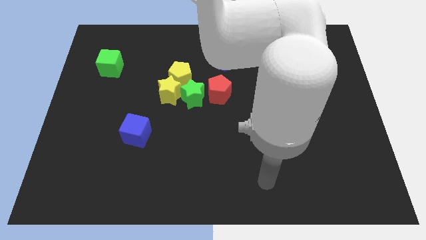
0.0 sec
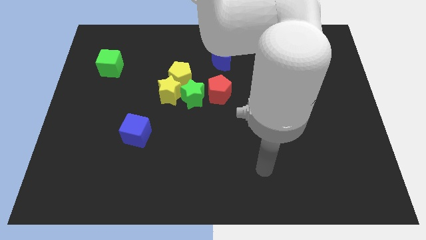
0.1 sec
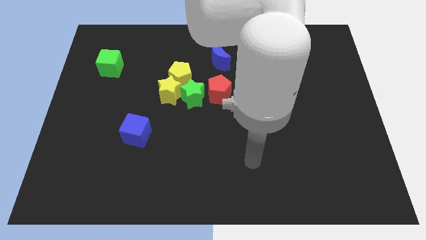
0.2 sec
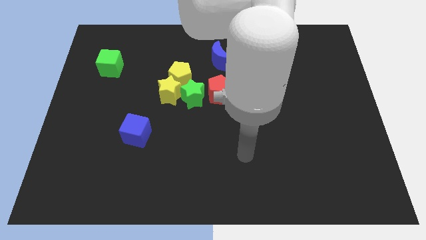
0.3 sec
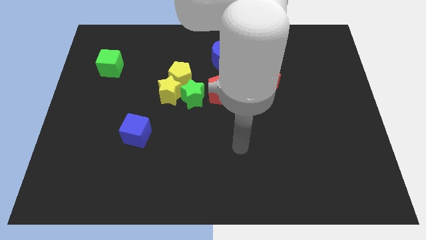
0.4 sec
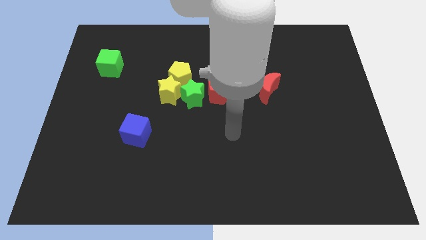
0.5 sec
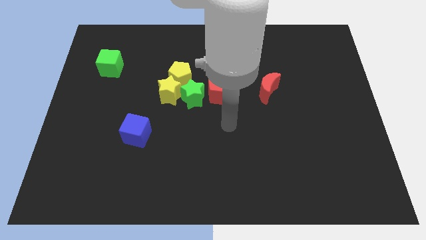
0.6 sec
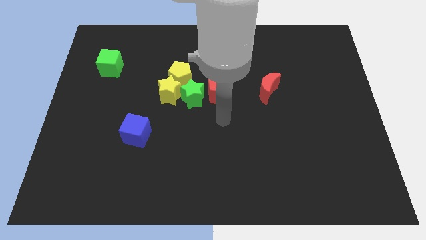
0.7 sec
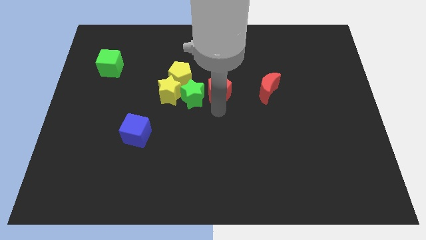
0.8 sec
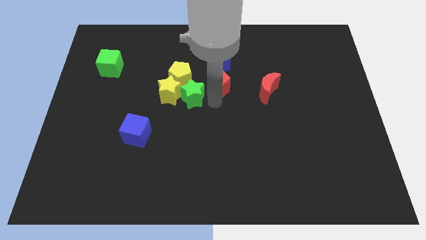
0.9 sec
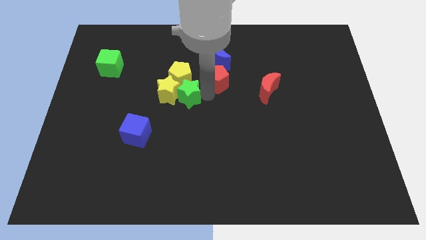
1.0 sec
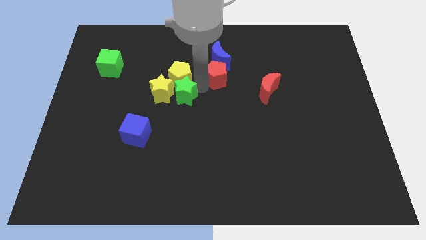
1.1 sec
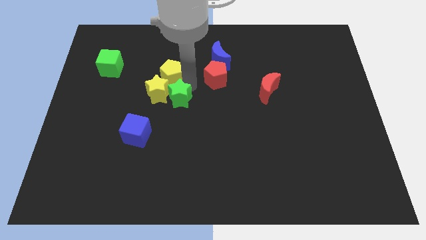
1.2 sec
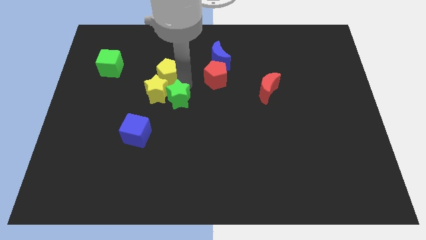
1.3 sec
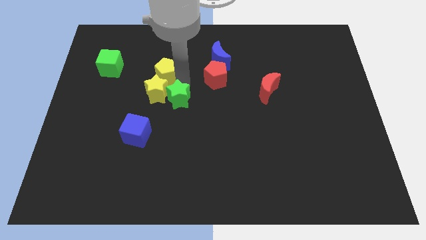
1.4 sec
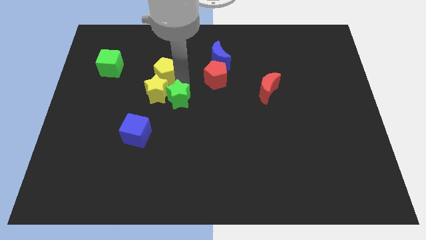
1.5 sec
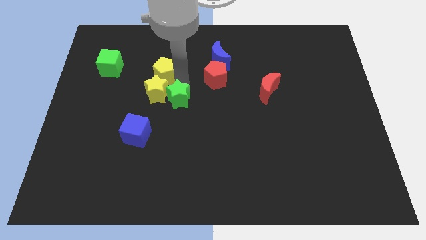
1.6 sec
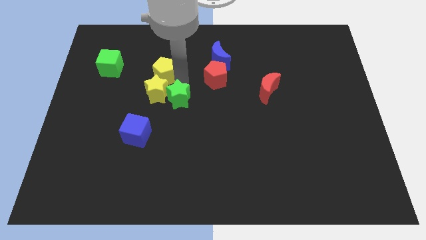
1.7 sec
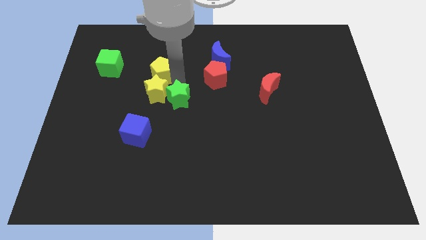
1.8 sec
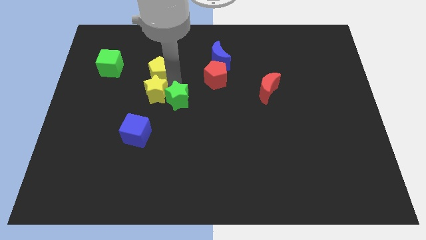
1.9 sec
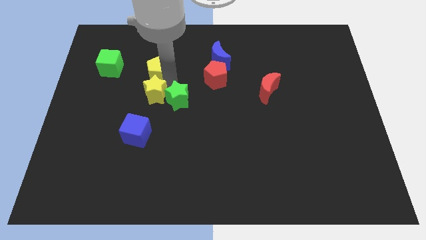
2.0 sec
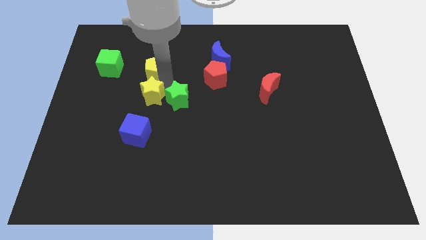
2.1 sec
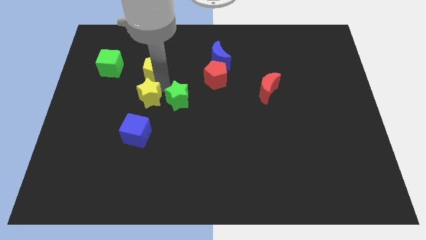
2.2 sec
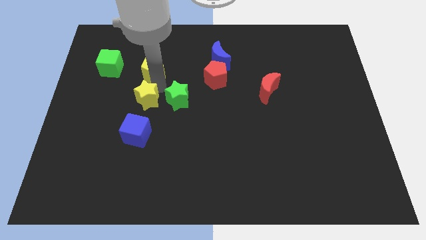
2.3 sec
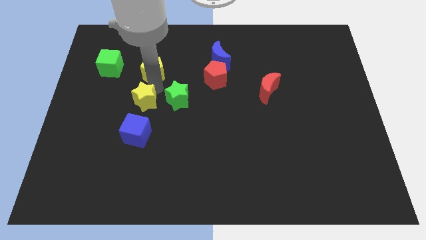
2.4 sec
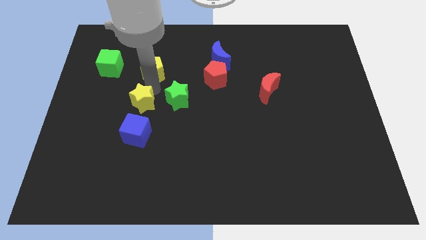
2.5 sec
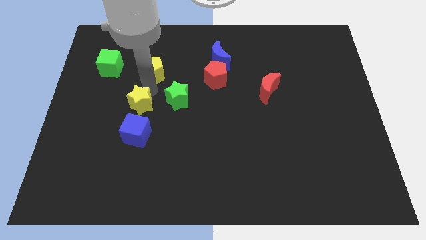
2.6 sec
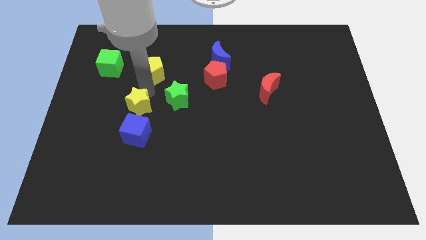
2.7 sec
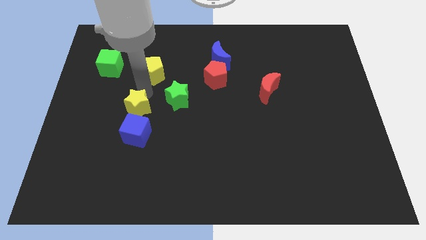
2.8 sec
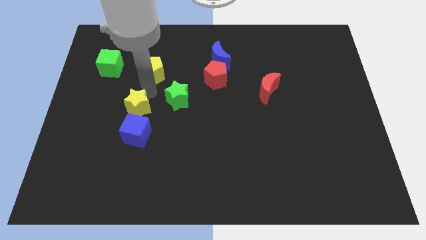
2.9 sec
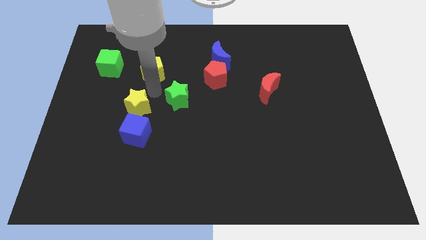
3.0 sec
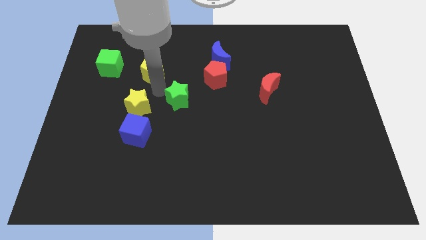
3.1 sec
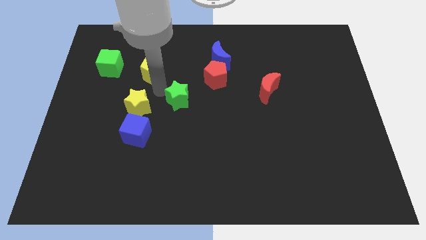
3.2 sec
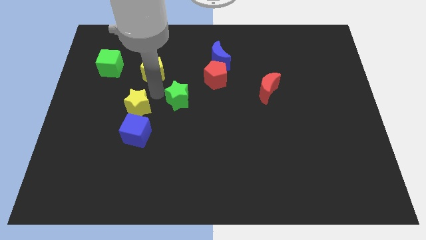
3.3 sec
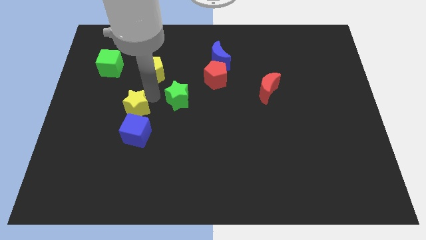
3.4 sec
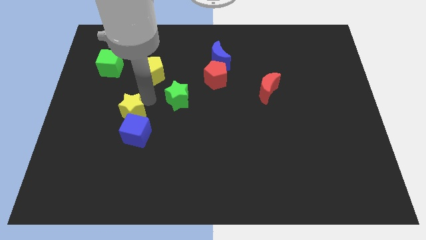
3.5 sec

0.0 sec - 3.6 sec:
separate the yellow star from the yellow pentagon and green star

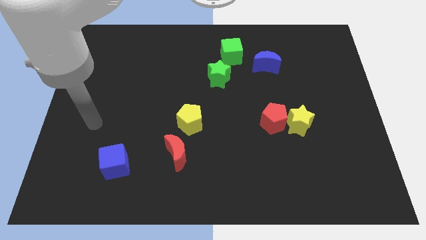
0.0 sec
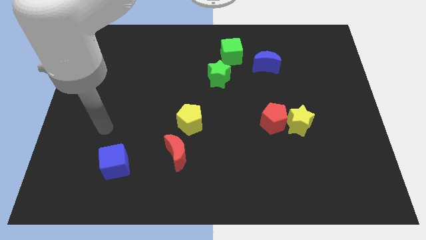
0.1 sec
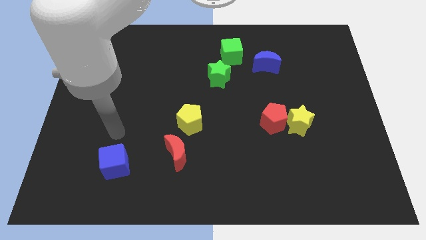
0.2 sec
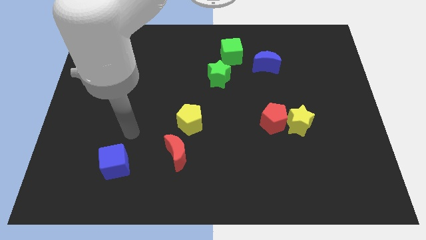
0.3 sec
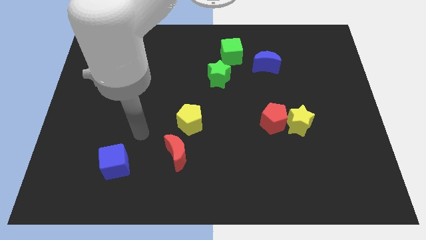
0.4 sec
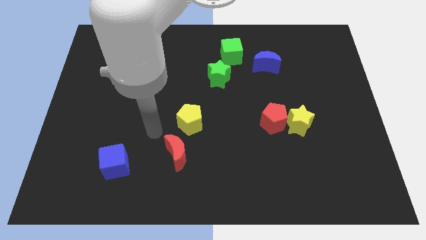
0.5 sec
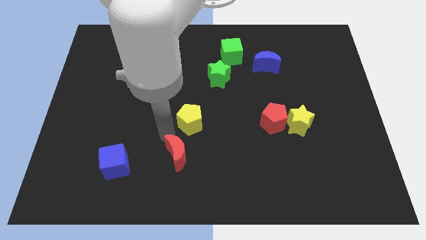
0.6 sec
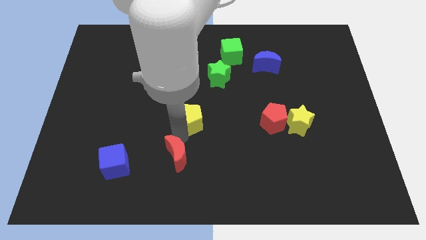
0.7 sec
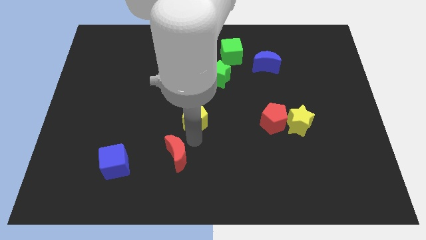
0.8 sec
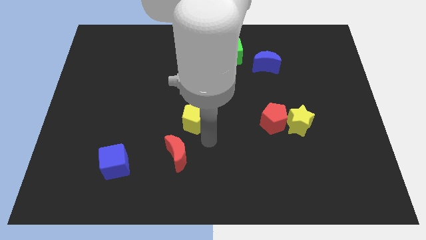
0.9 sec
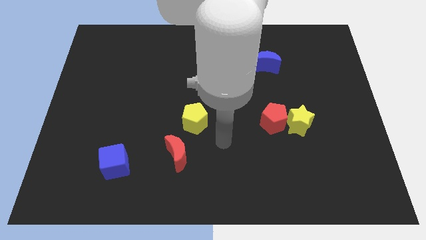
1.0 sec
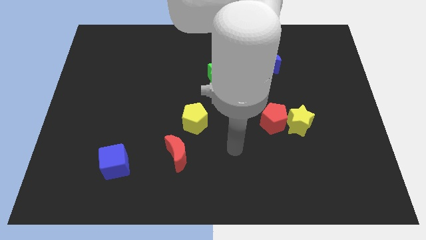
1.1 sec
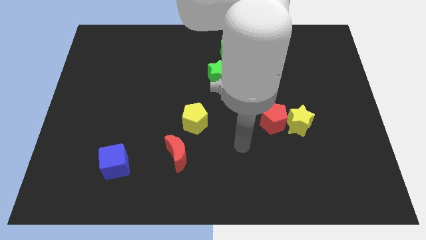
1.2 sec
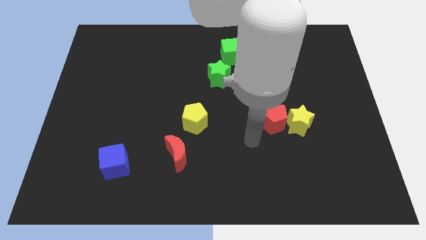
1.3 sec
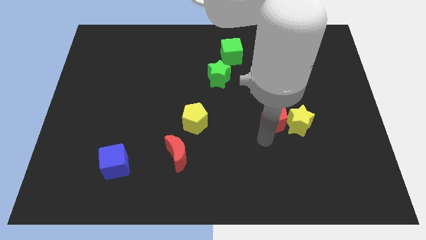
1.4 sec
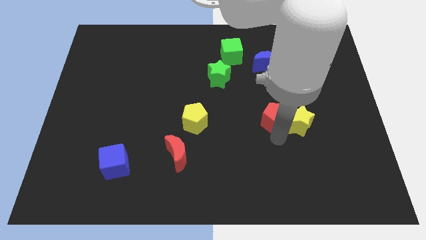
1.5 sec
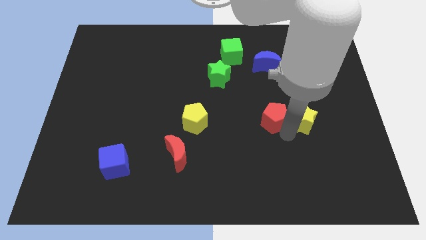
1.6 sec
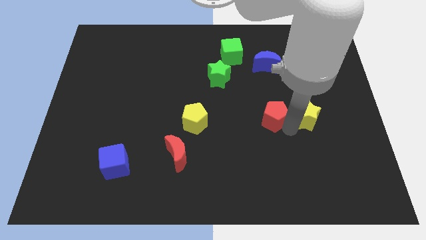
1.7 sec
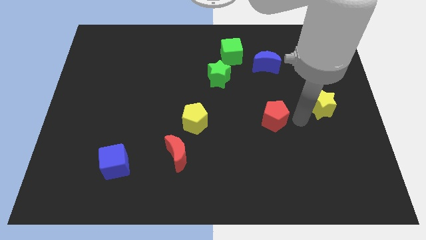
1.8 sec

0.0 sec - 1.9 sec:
pull the red pentagon apart from the yellow star

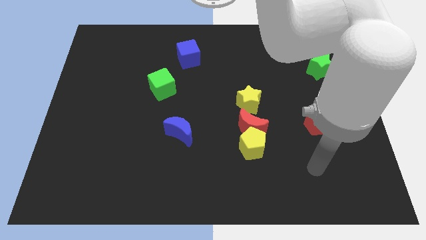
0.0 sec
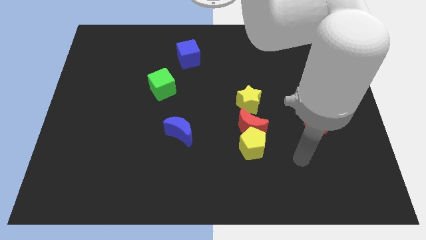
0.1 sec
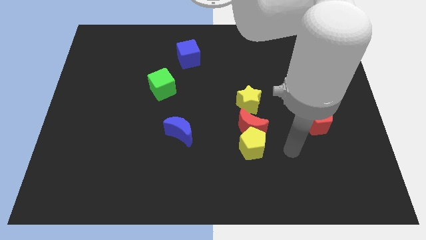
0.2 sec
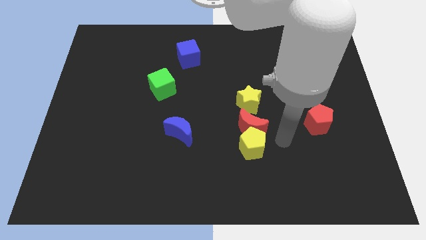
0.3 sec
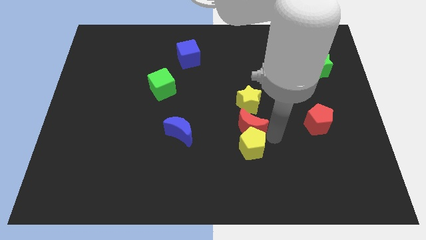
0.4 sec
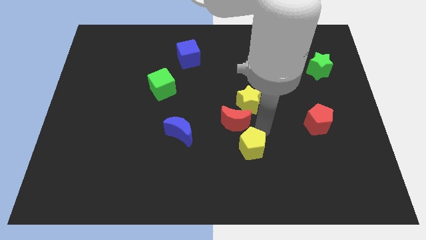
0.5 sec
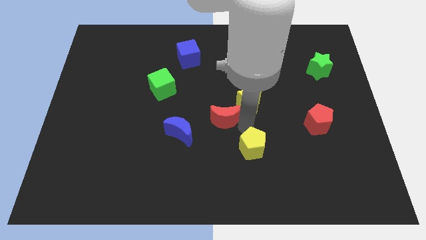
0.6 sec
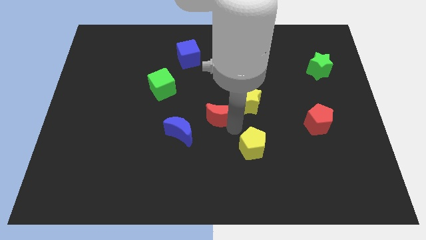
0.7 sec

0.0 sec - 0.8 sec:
move the yellow pentagon away from the red moon

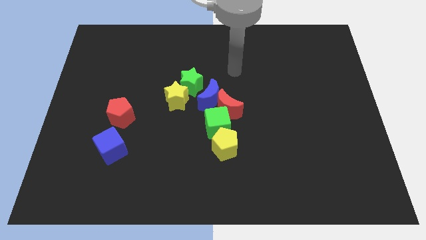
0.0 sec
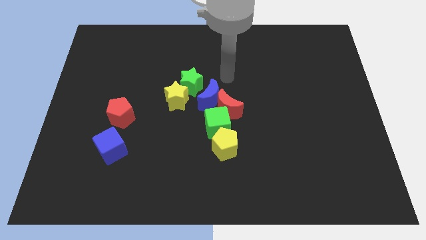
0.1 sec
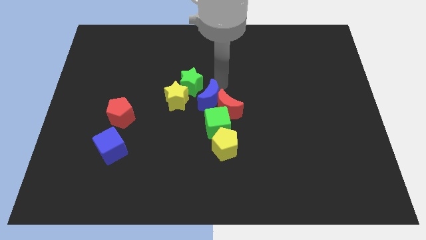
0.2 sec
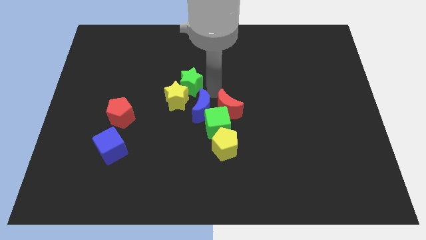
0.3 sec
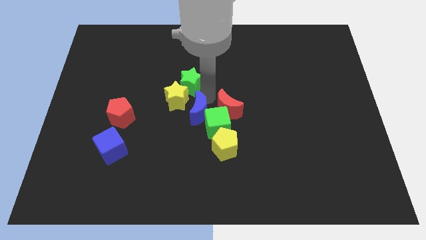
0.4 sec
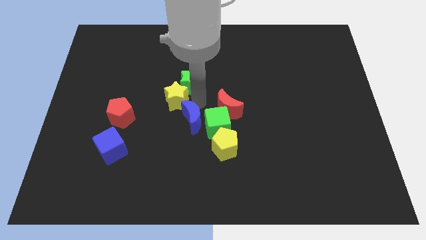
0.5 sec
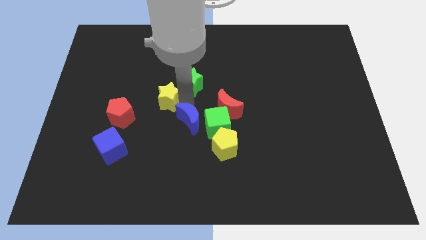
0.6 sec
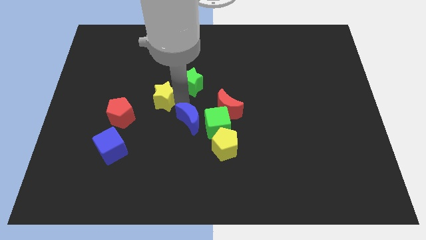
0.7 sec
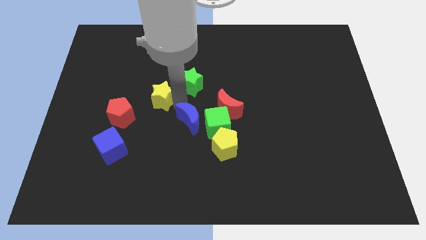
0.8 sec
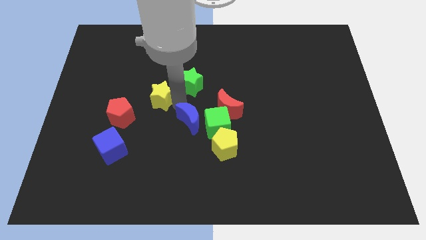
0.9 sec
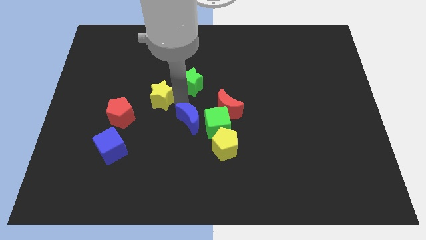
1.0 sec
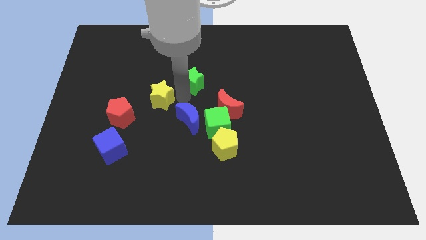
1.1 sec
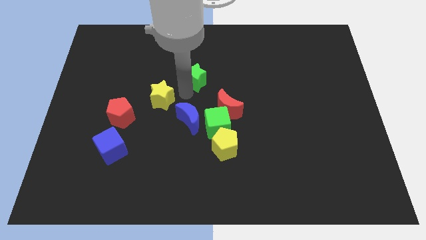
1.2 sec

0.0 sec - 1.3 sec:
pull the green star apart from the yellow star and blue moon

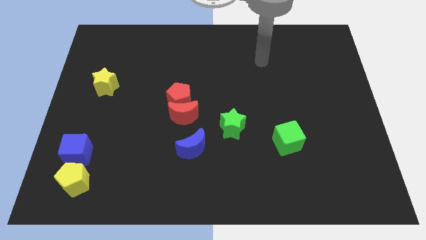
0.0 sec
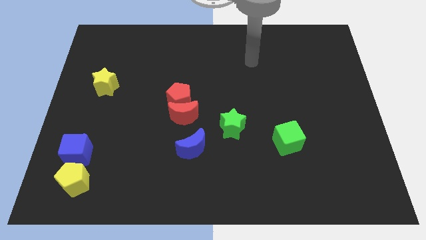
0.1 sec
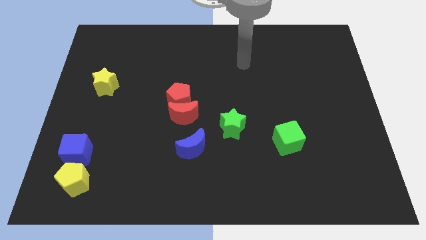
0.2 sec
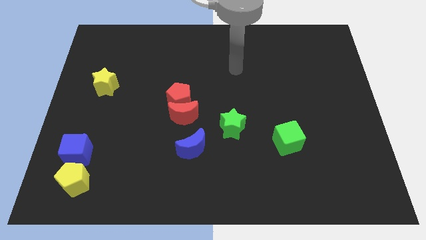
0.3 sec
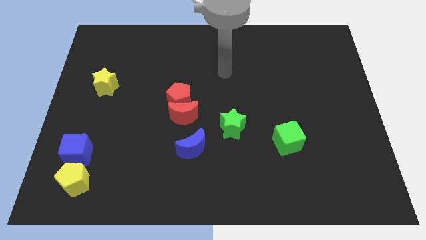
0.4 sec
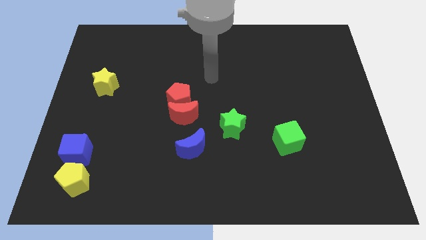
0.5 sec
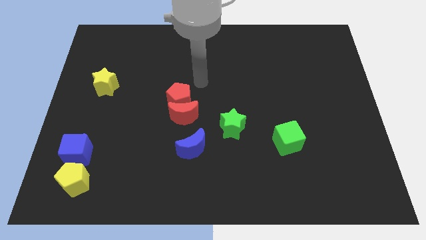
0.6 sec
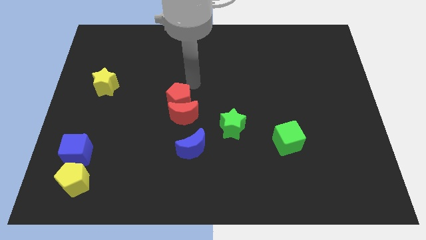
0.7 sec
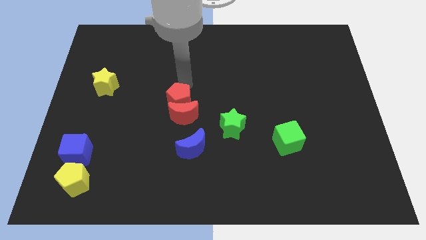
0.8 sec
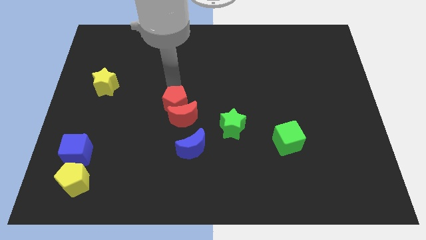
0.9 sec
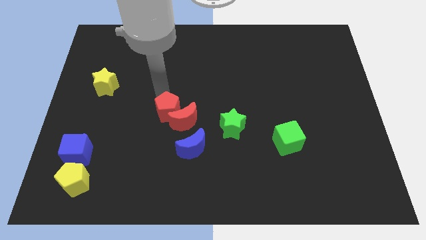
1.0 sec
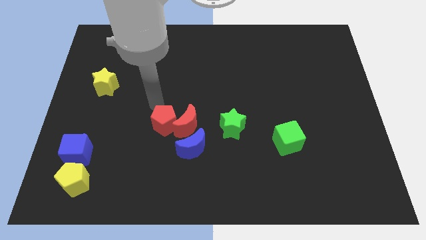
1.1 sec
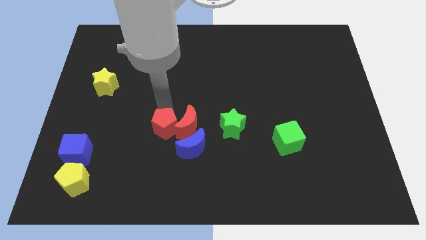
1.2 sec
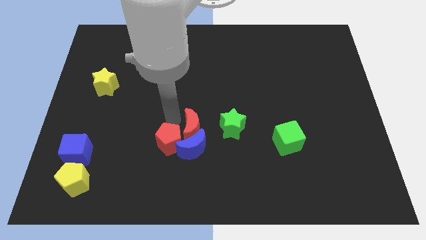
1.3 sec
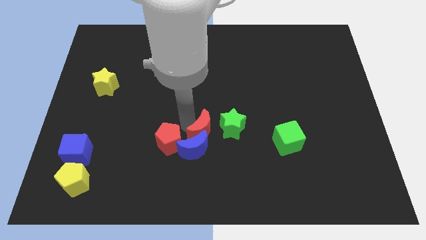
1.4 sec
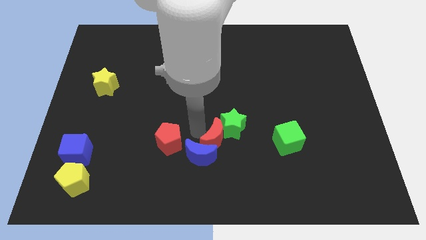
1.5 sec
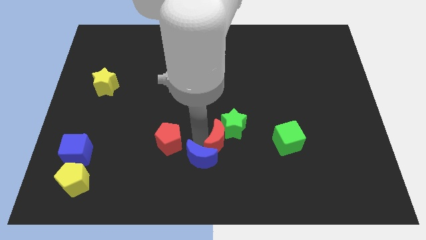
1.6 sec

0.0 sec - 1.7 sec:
separate the red pentagon from the red moon

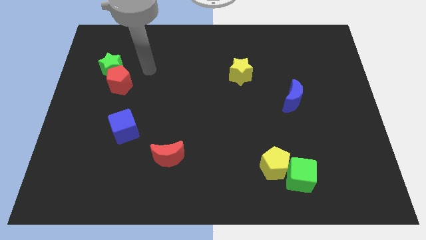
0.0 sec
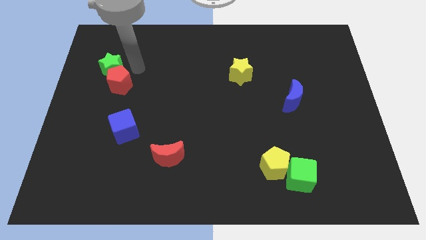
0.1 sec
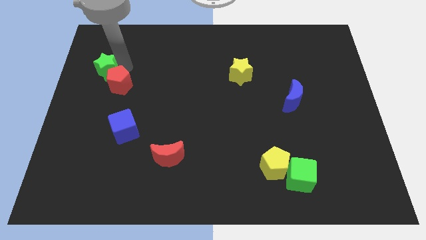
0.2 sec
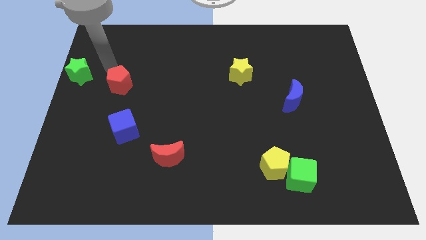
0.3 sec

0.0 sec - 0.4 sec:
move the red pentagon away from the green star
